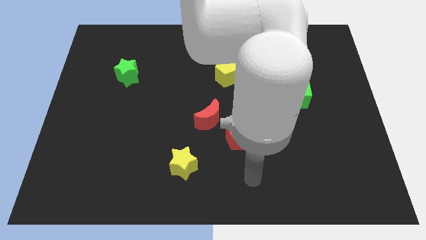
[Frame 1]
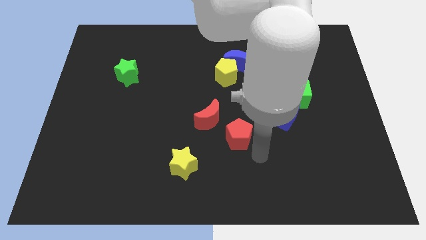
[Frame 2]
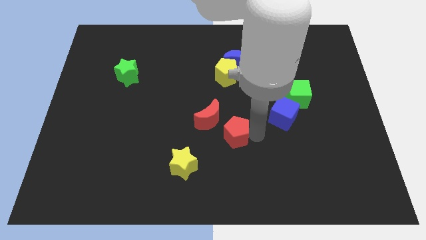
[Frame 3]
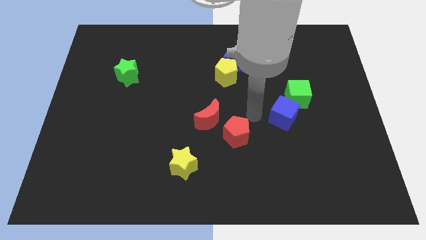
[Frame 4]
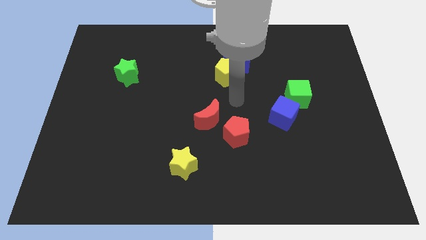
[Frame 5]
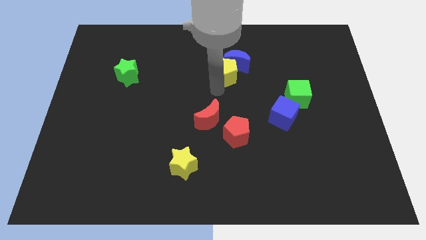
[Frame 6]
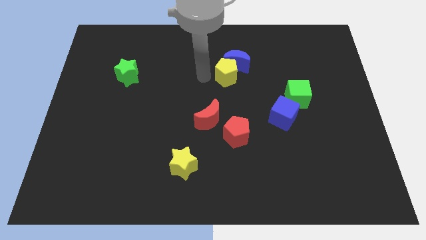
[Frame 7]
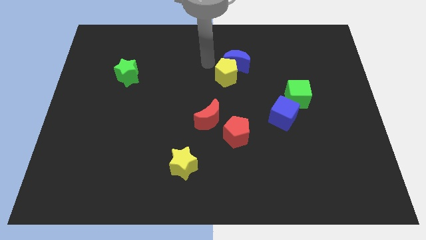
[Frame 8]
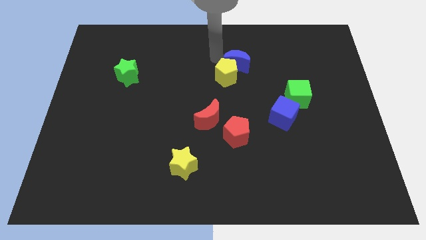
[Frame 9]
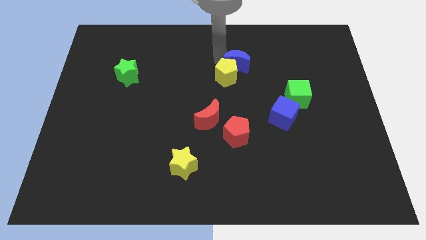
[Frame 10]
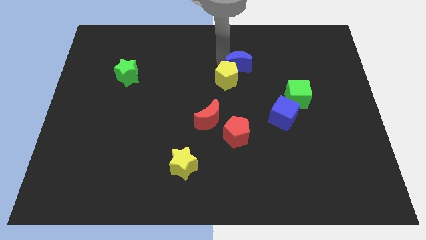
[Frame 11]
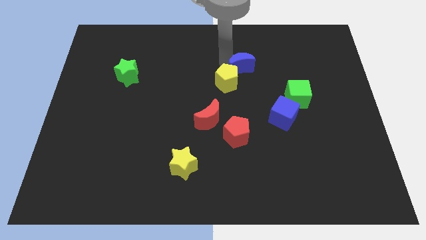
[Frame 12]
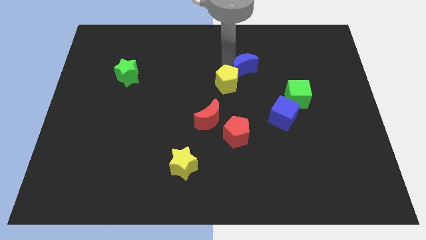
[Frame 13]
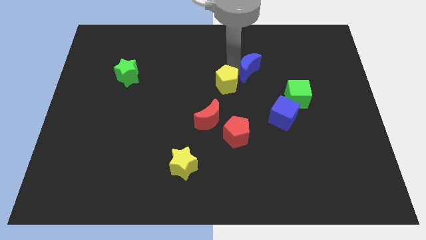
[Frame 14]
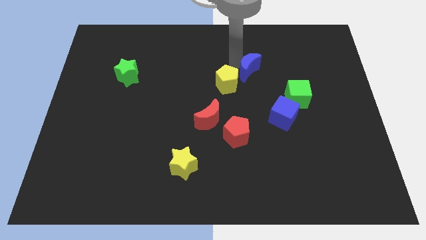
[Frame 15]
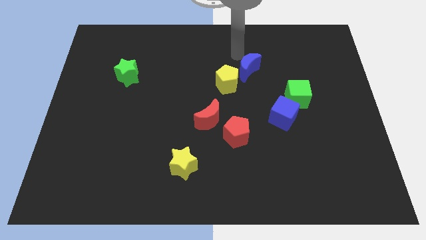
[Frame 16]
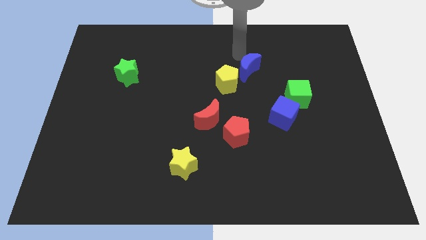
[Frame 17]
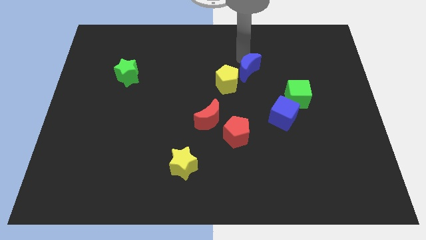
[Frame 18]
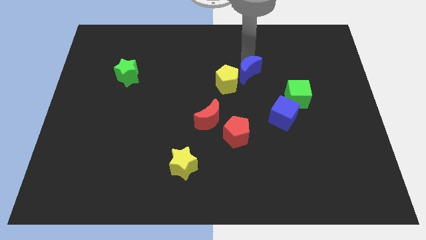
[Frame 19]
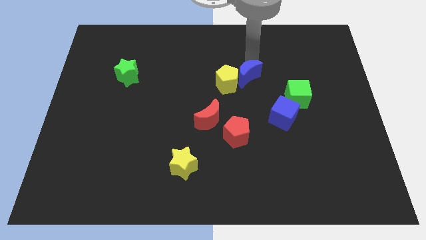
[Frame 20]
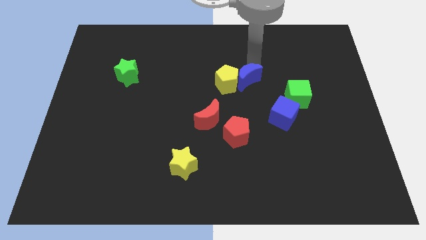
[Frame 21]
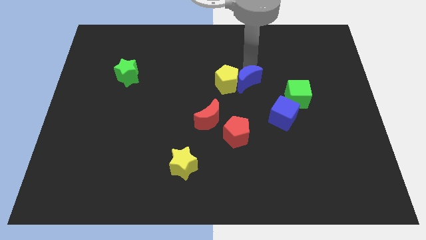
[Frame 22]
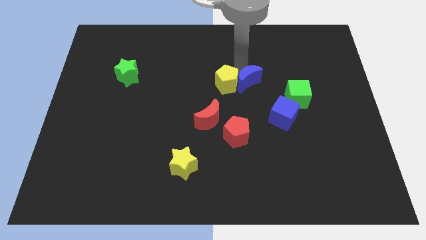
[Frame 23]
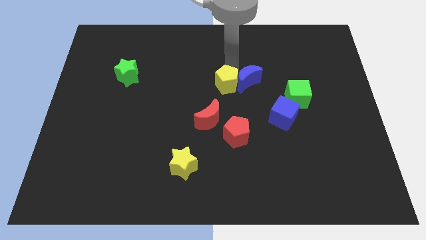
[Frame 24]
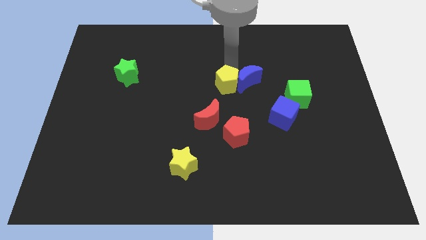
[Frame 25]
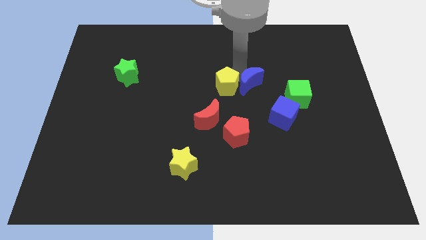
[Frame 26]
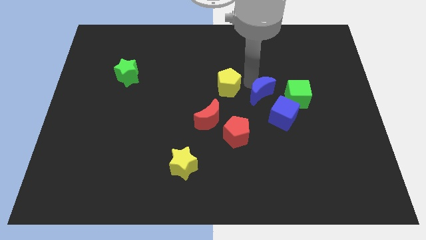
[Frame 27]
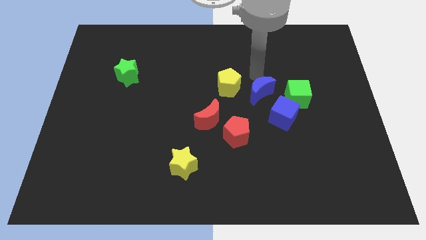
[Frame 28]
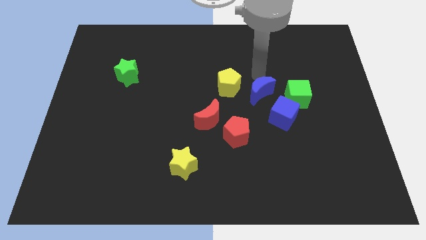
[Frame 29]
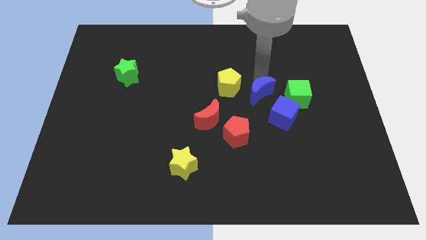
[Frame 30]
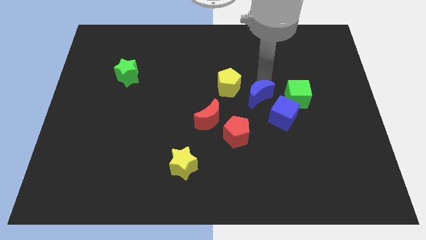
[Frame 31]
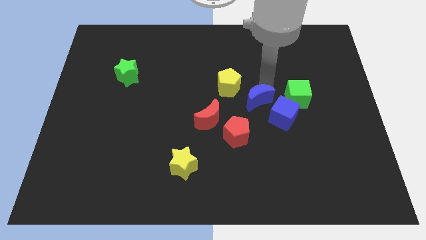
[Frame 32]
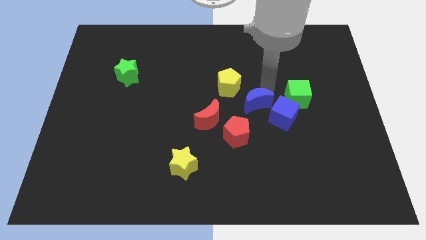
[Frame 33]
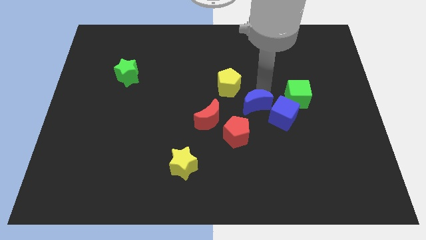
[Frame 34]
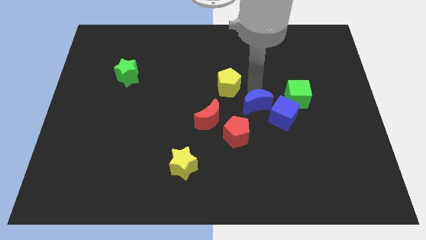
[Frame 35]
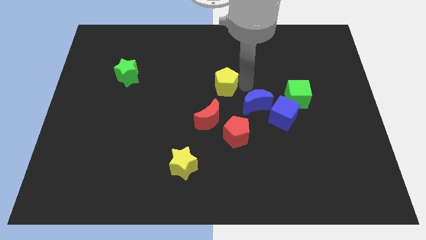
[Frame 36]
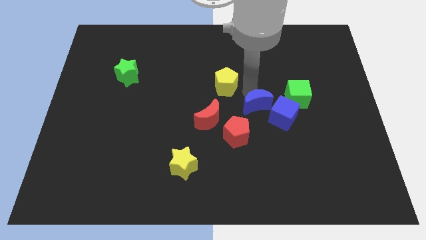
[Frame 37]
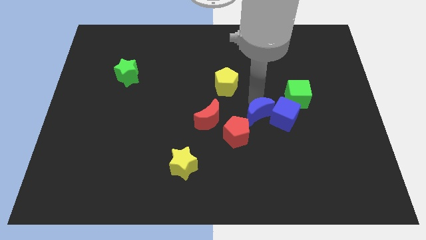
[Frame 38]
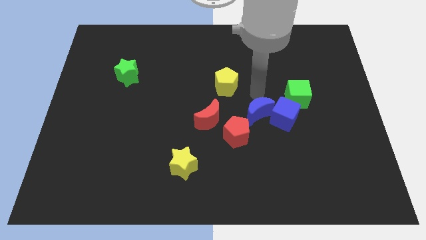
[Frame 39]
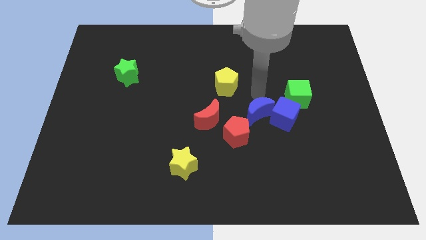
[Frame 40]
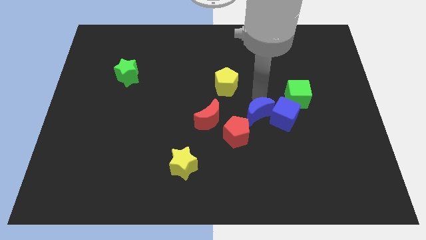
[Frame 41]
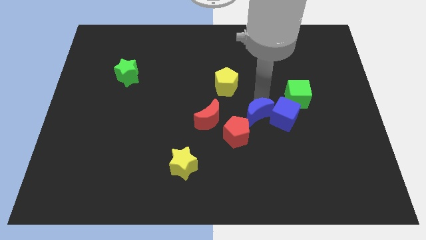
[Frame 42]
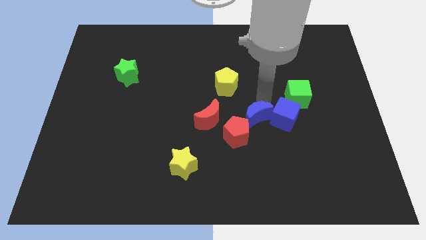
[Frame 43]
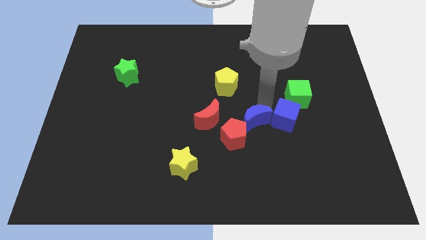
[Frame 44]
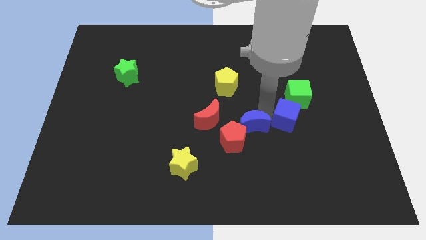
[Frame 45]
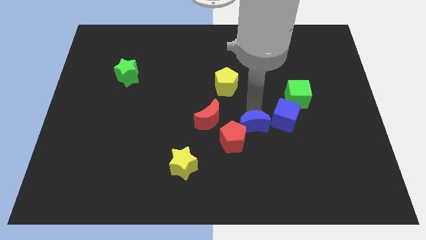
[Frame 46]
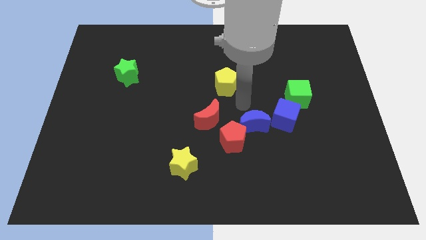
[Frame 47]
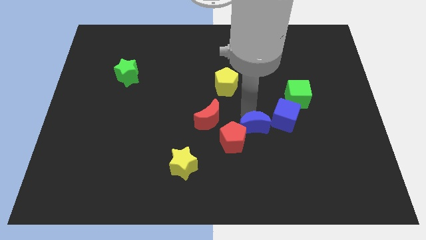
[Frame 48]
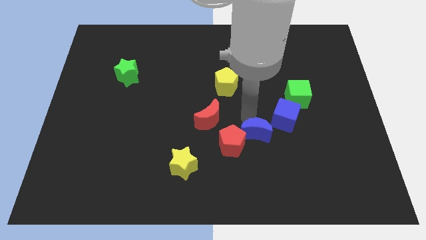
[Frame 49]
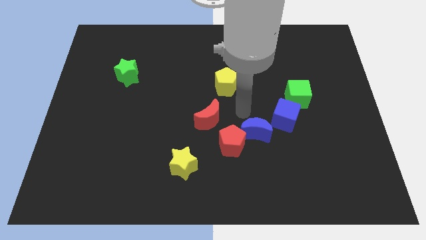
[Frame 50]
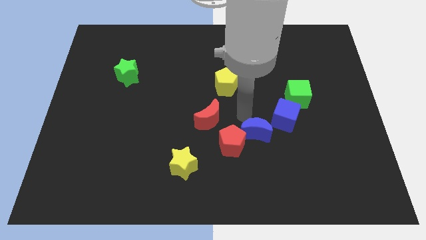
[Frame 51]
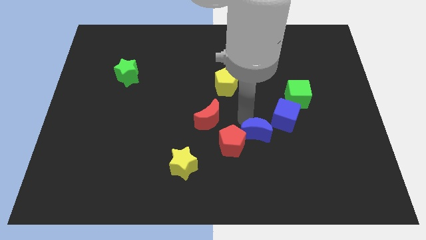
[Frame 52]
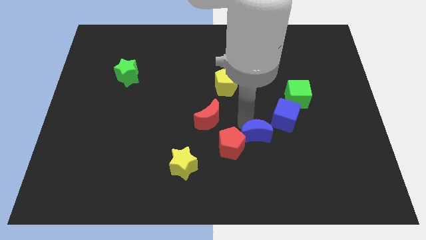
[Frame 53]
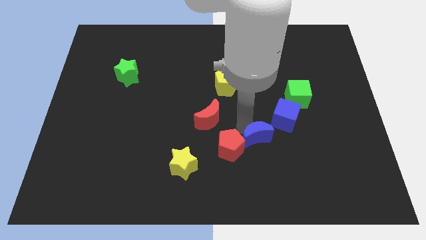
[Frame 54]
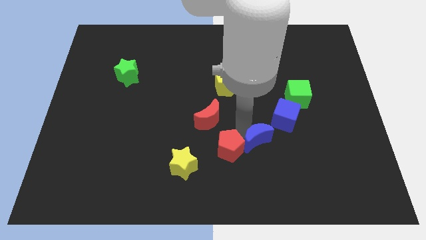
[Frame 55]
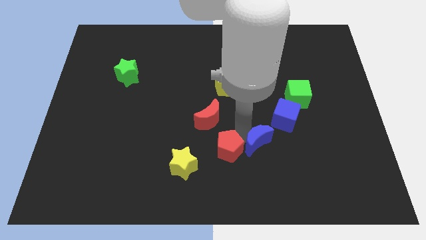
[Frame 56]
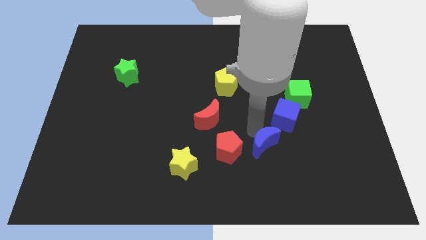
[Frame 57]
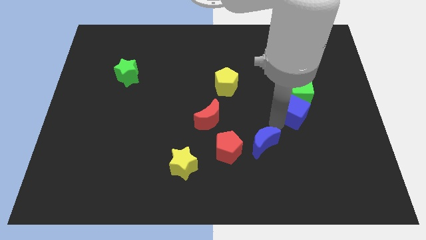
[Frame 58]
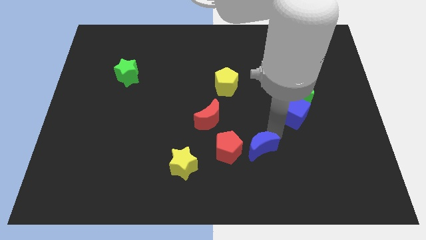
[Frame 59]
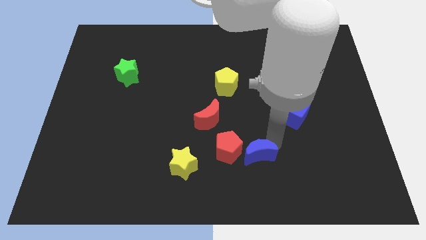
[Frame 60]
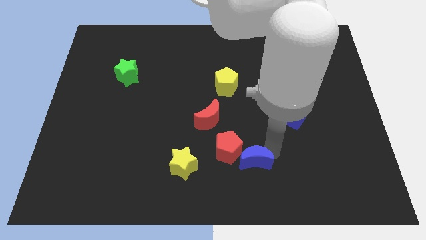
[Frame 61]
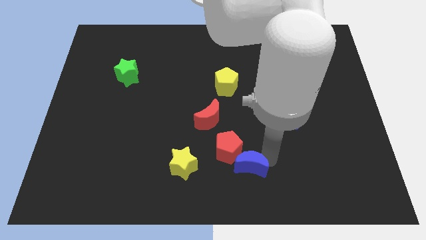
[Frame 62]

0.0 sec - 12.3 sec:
move the blue moon to the bottom of the red pentagon

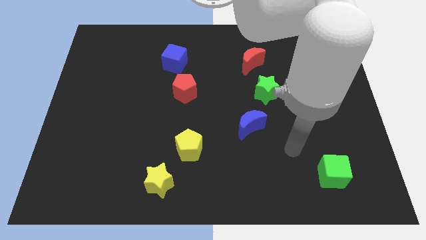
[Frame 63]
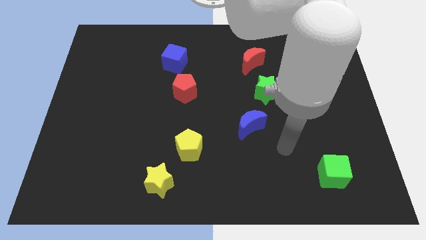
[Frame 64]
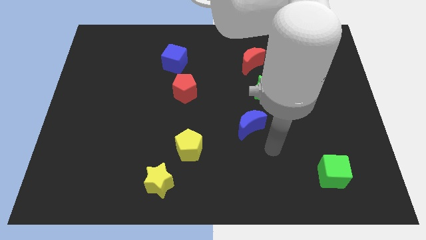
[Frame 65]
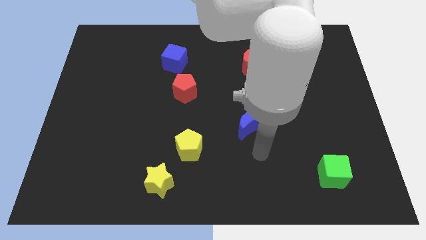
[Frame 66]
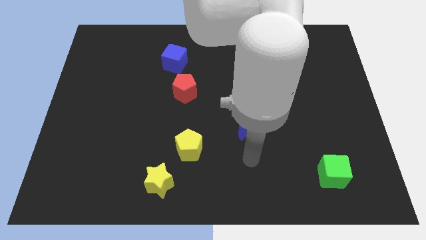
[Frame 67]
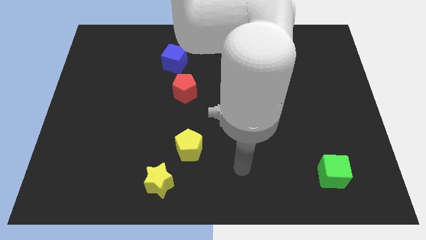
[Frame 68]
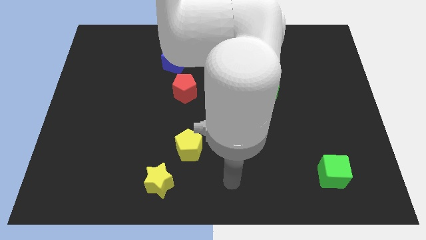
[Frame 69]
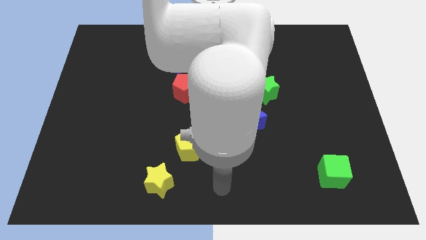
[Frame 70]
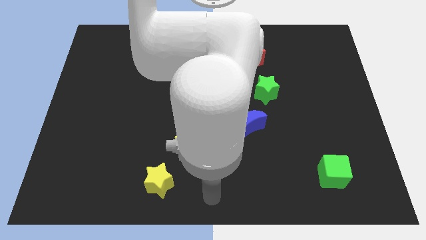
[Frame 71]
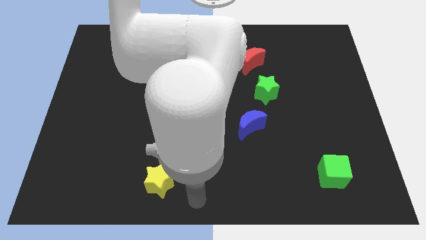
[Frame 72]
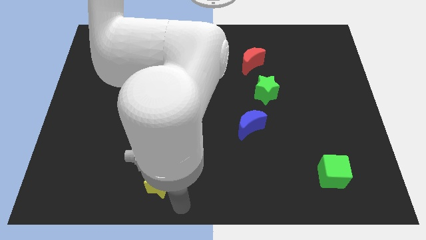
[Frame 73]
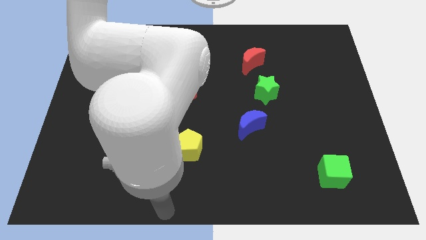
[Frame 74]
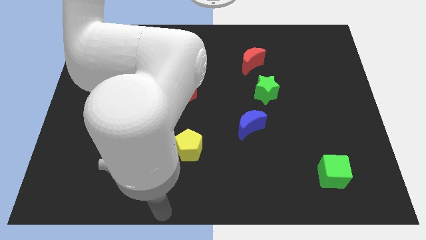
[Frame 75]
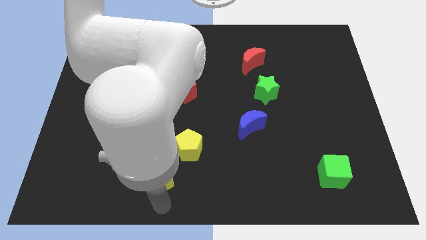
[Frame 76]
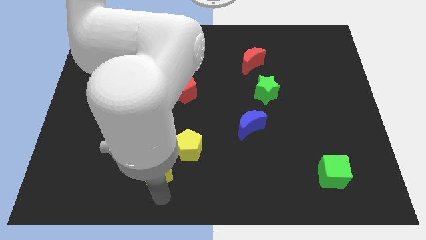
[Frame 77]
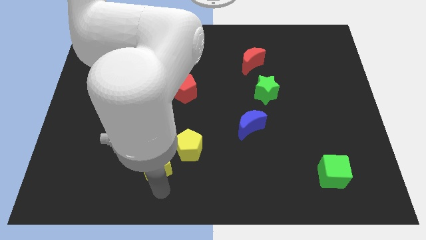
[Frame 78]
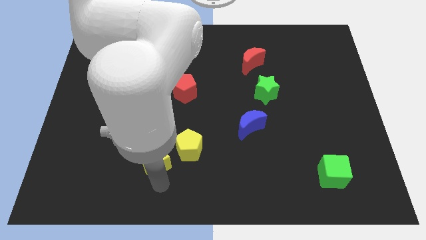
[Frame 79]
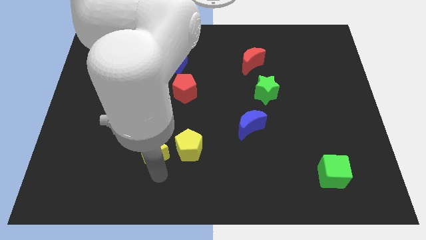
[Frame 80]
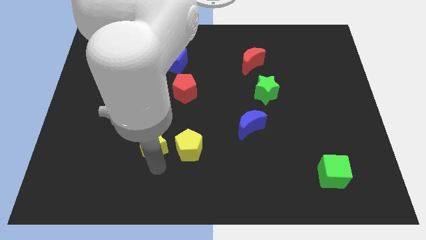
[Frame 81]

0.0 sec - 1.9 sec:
push the yellow star to the top left side of the yellow pentagon
